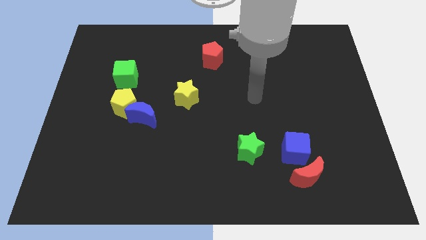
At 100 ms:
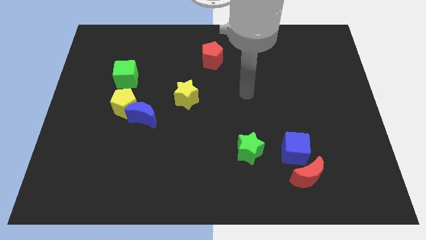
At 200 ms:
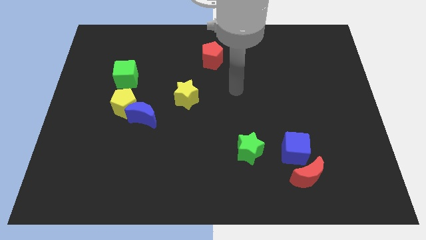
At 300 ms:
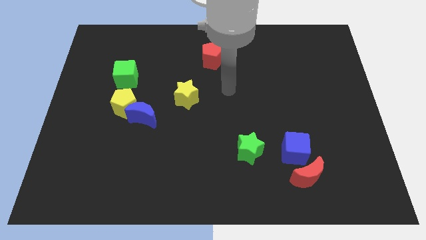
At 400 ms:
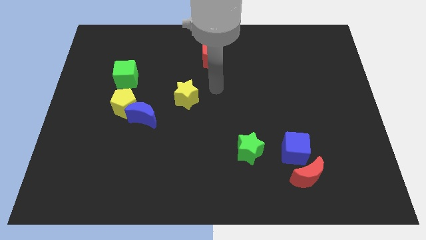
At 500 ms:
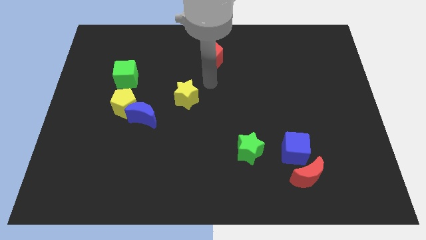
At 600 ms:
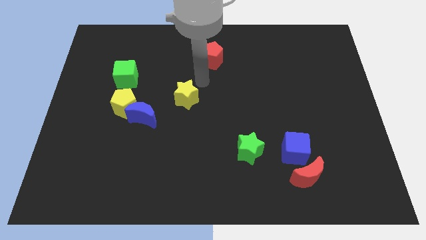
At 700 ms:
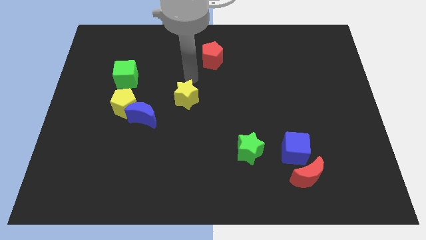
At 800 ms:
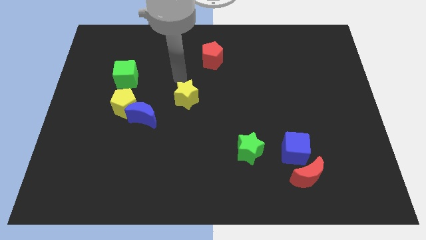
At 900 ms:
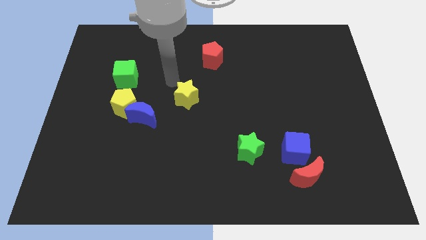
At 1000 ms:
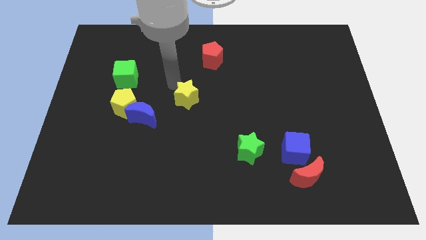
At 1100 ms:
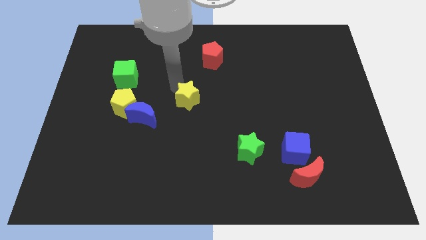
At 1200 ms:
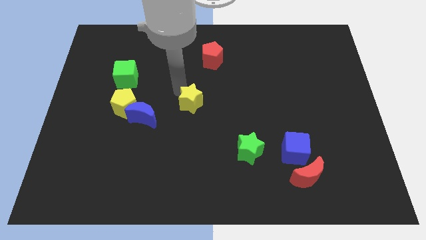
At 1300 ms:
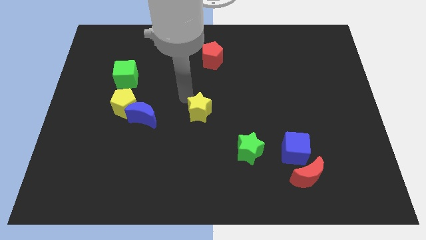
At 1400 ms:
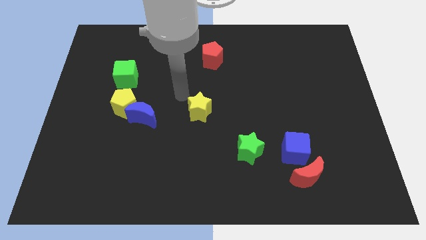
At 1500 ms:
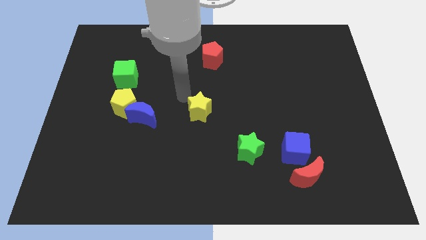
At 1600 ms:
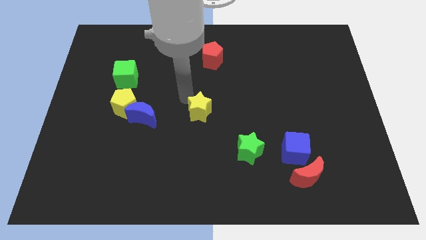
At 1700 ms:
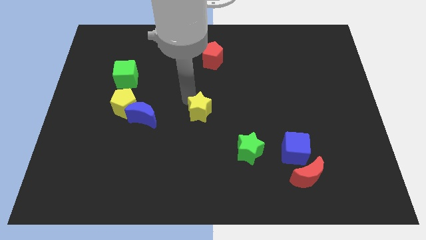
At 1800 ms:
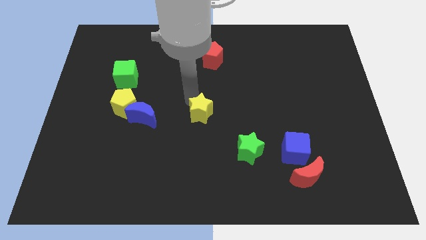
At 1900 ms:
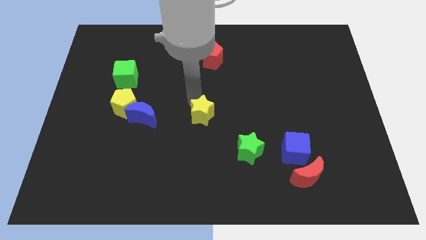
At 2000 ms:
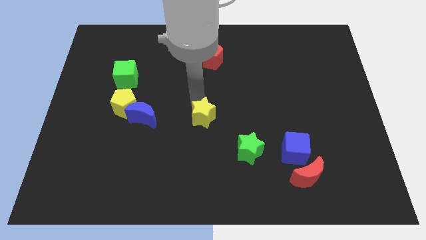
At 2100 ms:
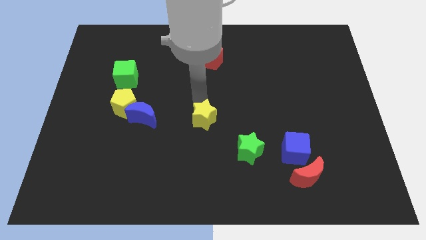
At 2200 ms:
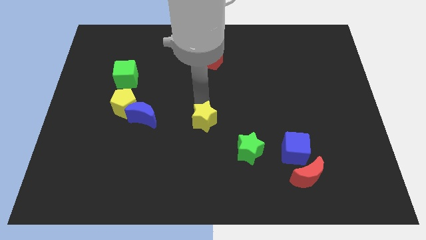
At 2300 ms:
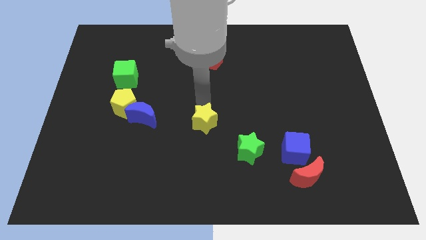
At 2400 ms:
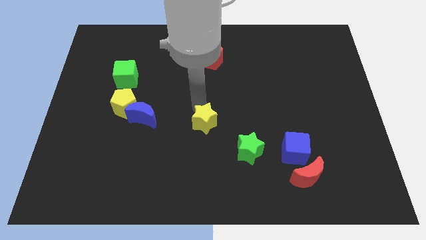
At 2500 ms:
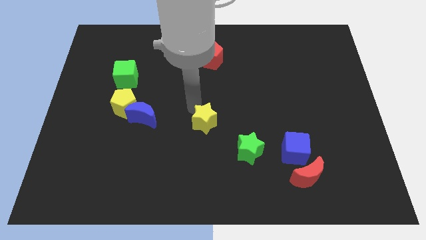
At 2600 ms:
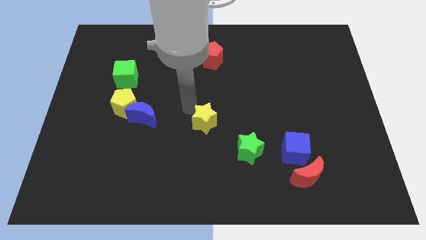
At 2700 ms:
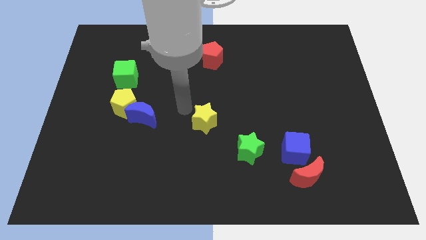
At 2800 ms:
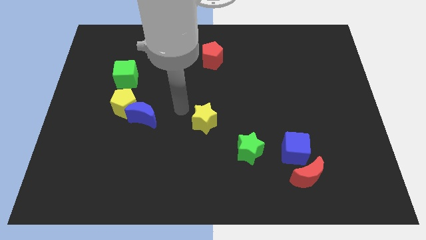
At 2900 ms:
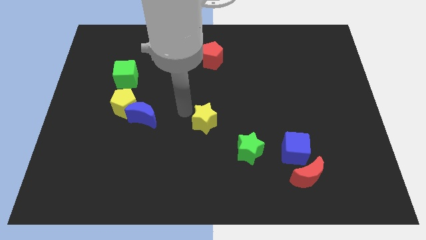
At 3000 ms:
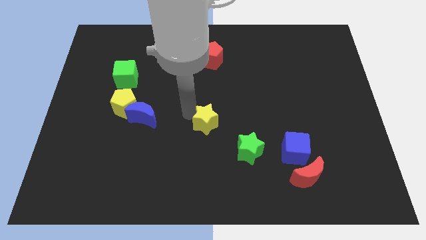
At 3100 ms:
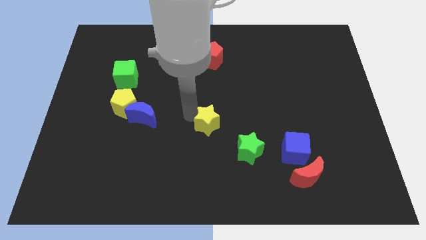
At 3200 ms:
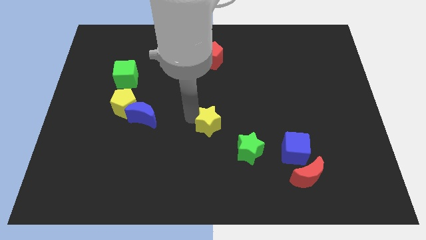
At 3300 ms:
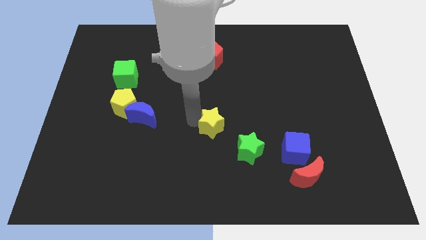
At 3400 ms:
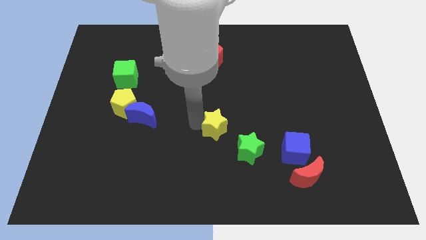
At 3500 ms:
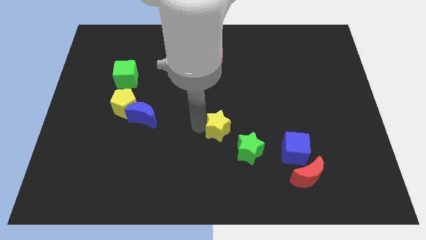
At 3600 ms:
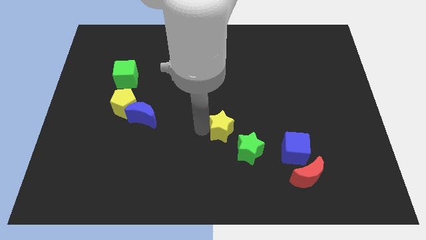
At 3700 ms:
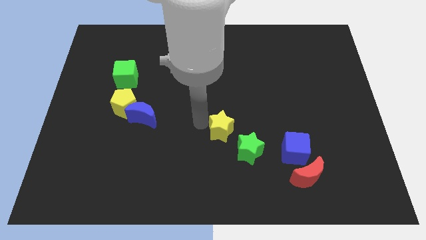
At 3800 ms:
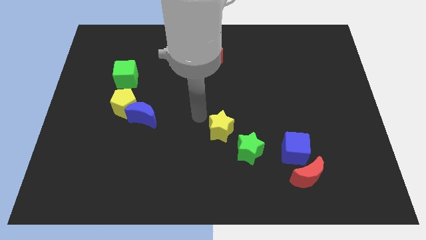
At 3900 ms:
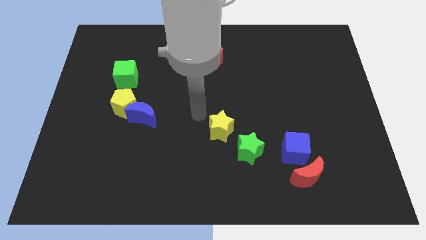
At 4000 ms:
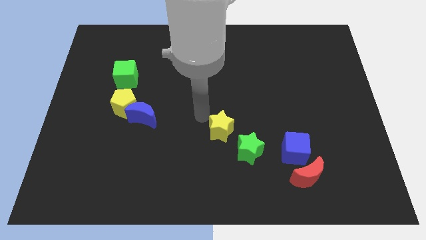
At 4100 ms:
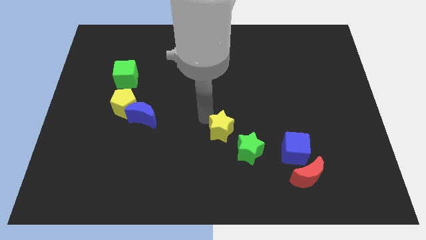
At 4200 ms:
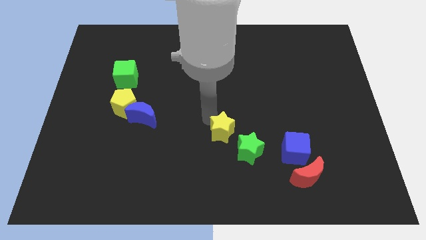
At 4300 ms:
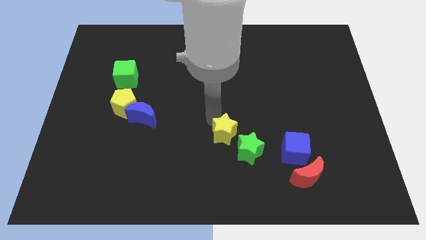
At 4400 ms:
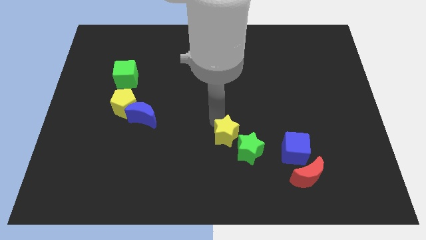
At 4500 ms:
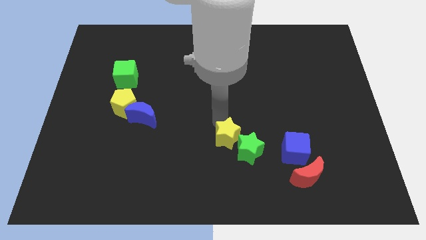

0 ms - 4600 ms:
slide the yellow star to the green star

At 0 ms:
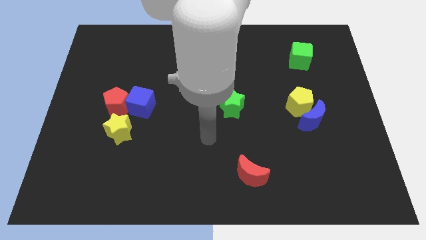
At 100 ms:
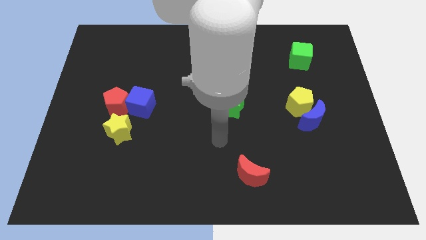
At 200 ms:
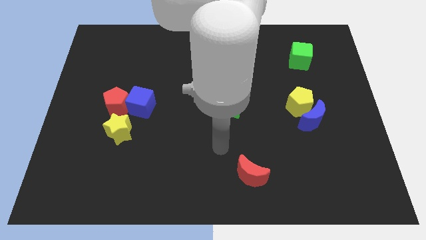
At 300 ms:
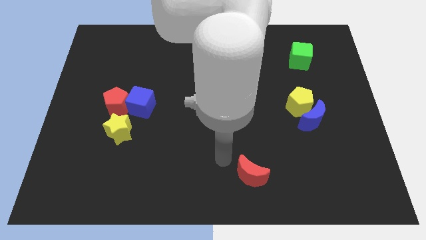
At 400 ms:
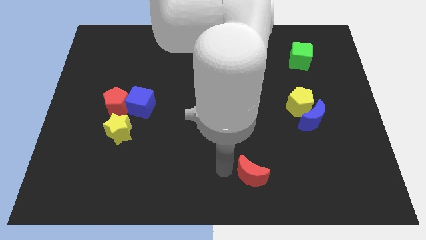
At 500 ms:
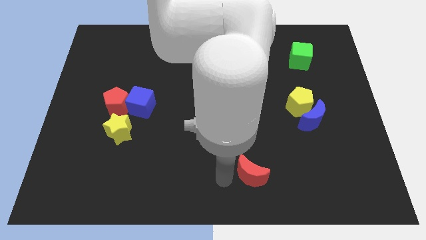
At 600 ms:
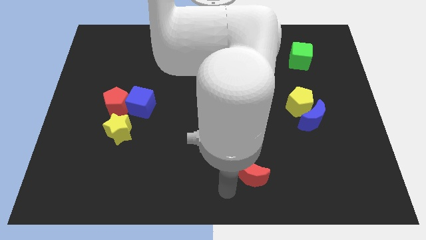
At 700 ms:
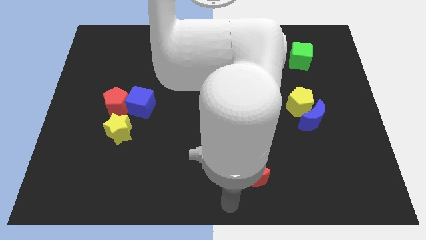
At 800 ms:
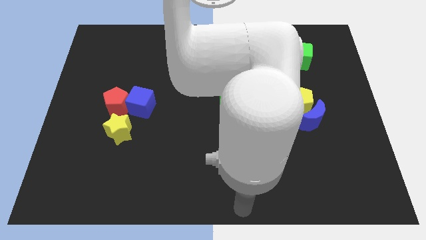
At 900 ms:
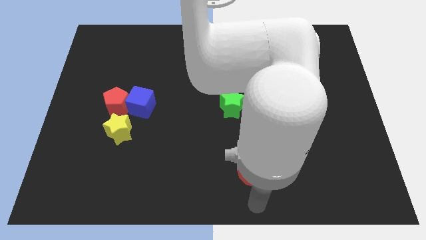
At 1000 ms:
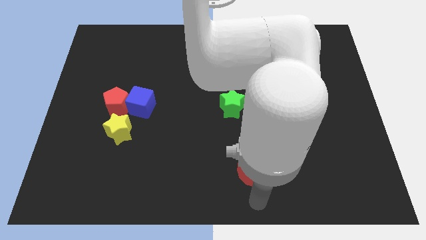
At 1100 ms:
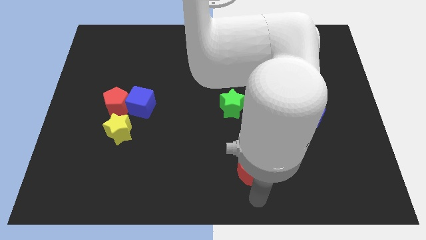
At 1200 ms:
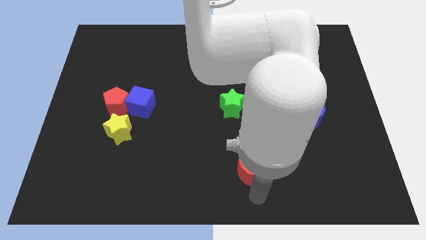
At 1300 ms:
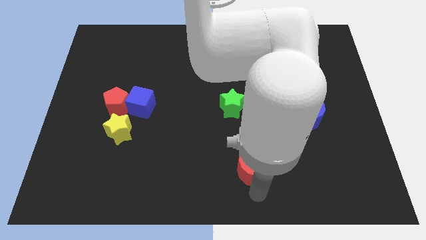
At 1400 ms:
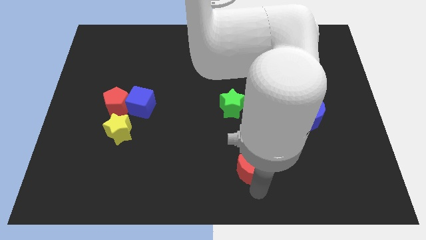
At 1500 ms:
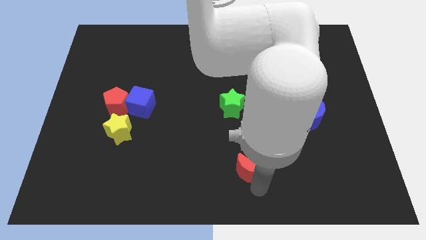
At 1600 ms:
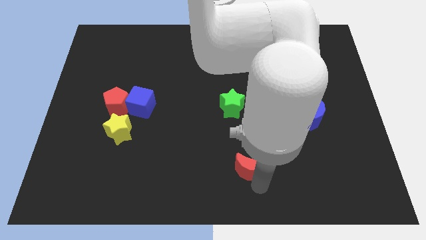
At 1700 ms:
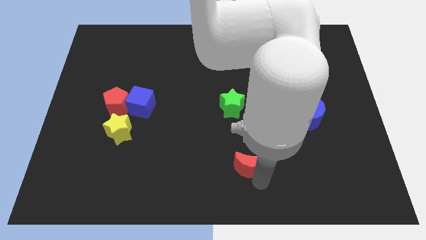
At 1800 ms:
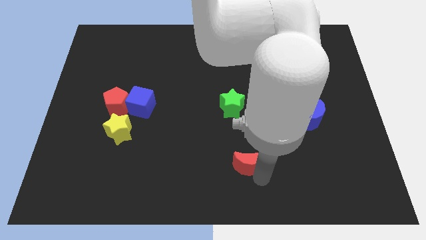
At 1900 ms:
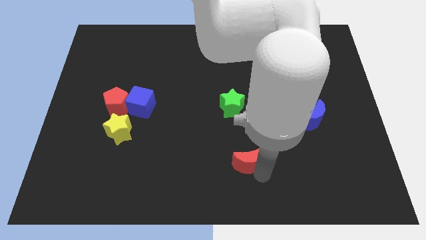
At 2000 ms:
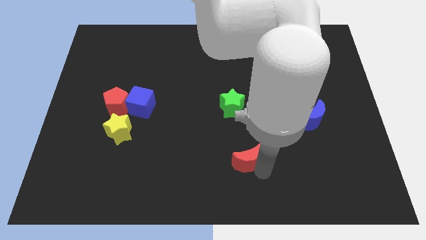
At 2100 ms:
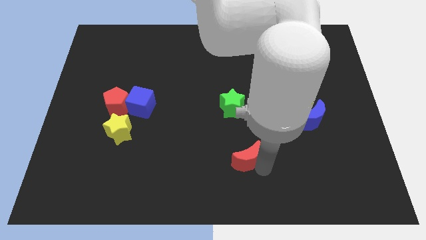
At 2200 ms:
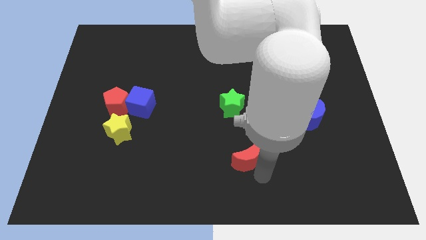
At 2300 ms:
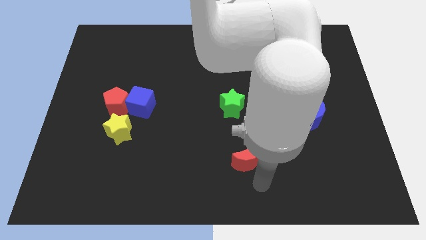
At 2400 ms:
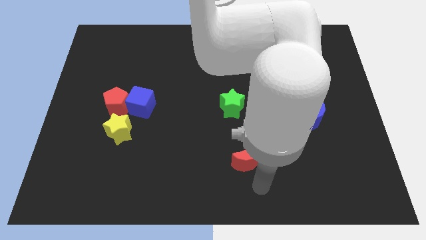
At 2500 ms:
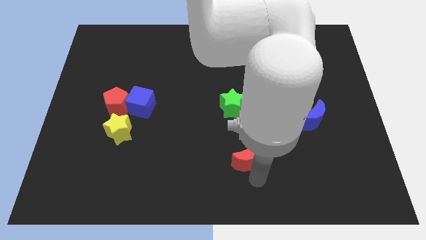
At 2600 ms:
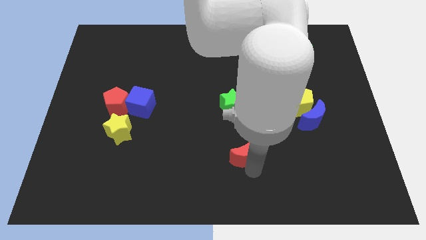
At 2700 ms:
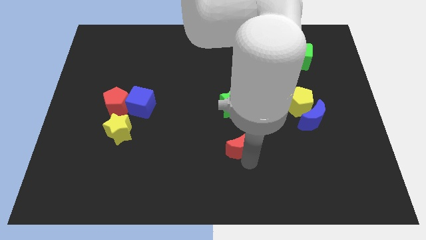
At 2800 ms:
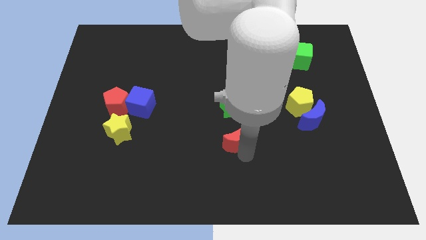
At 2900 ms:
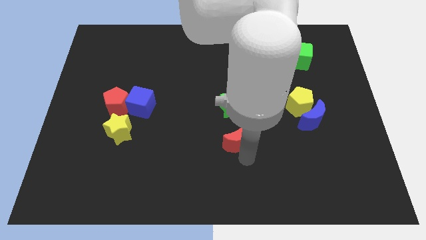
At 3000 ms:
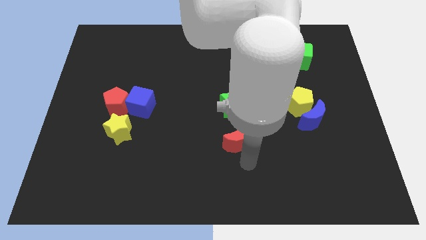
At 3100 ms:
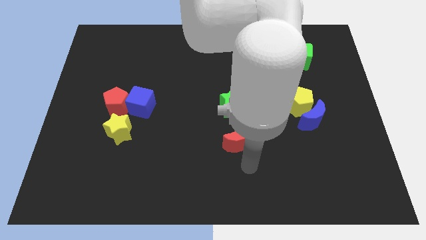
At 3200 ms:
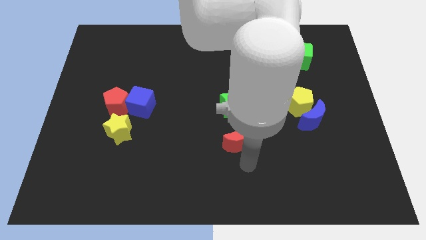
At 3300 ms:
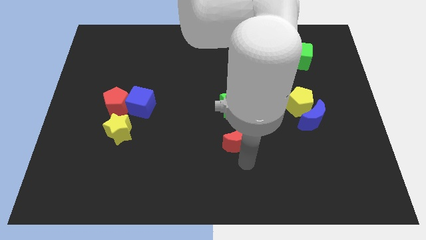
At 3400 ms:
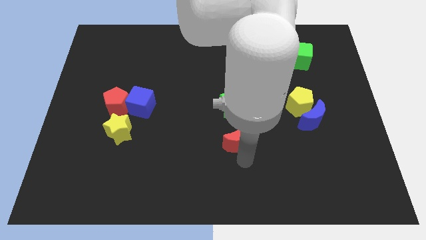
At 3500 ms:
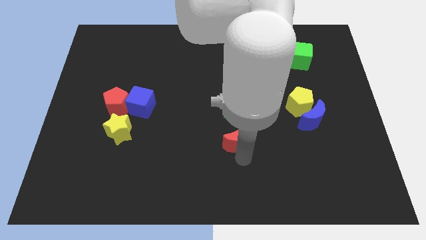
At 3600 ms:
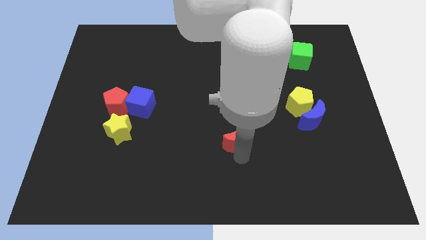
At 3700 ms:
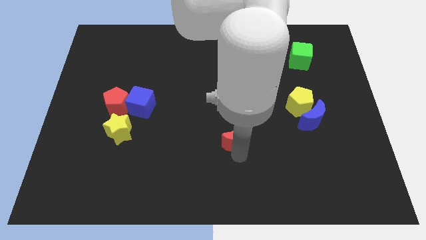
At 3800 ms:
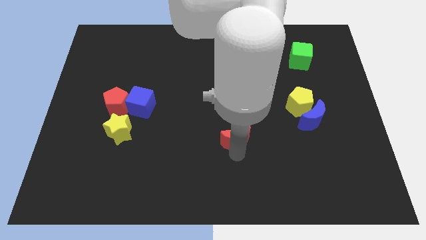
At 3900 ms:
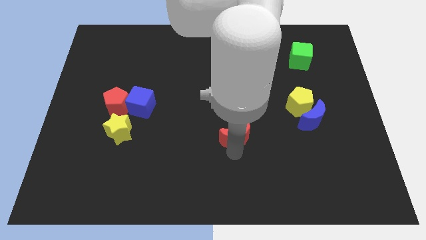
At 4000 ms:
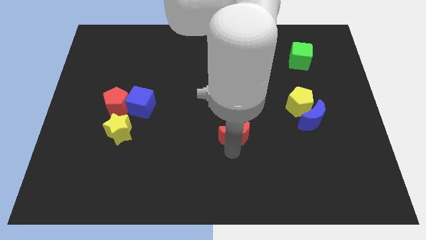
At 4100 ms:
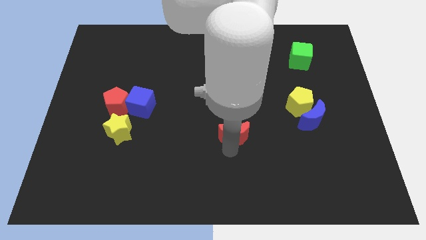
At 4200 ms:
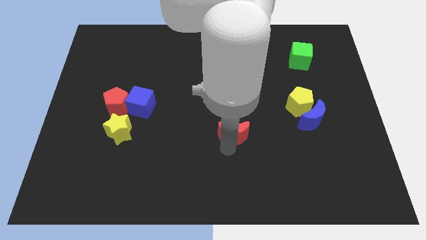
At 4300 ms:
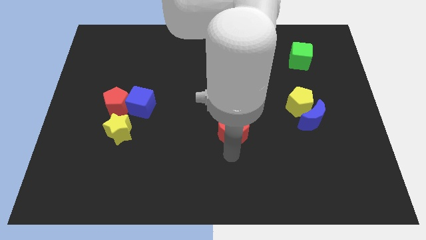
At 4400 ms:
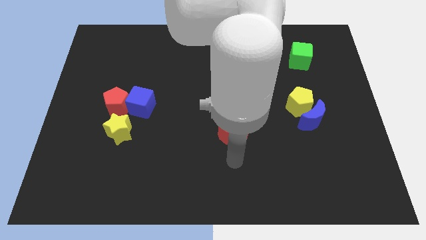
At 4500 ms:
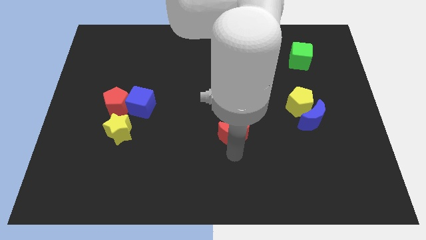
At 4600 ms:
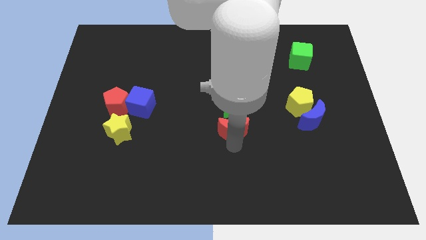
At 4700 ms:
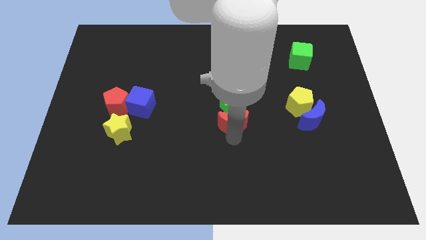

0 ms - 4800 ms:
slide the red moon close to the green star
